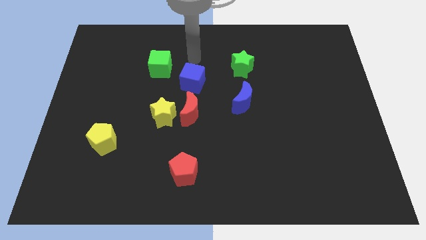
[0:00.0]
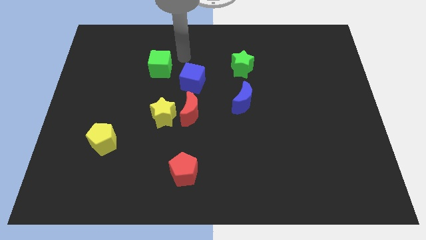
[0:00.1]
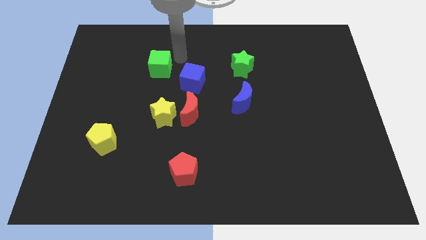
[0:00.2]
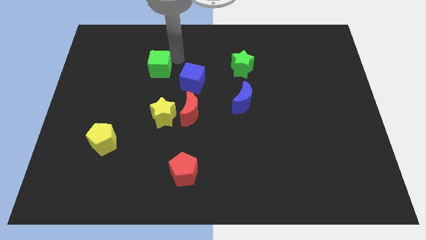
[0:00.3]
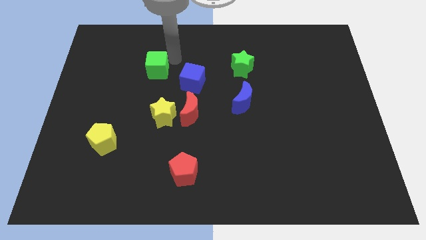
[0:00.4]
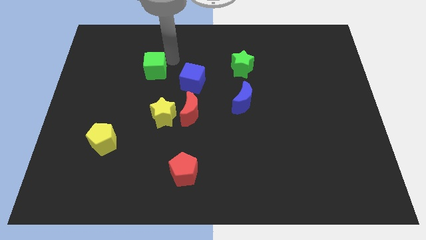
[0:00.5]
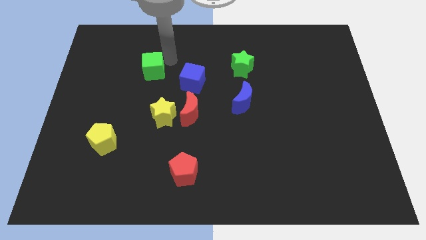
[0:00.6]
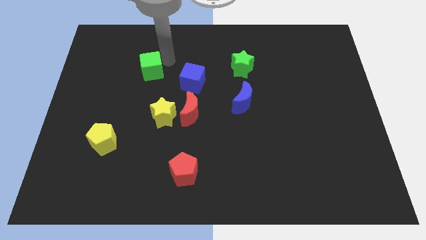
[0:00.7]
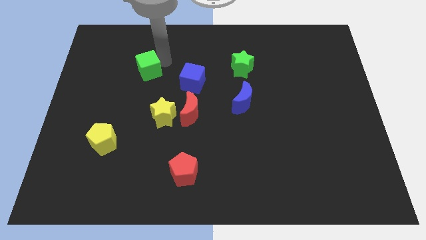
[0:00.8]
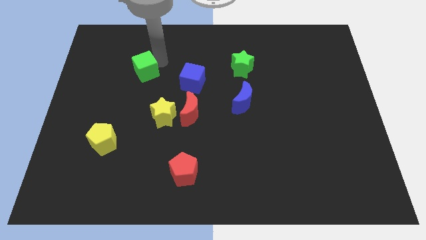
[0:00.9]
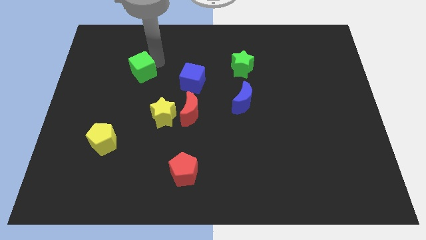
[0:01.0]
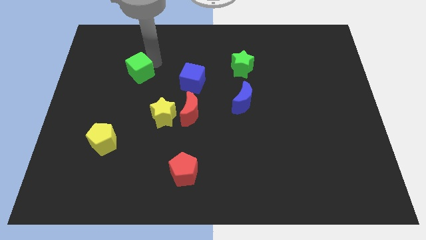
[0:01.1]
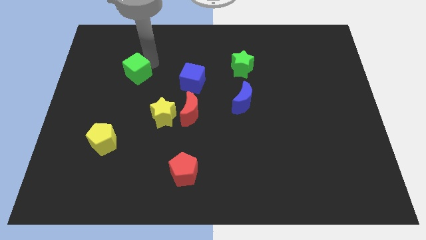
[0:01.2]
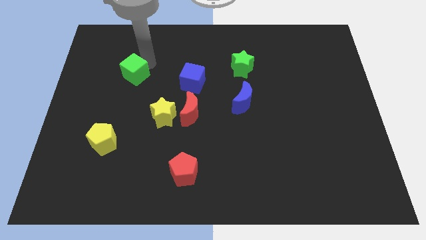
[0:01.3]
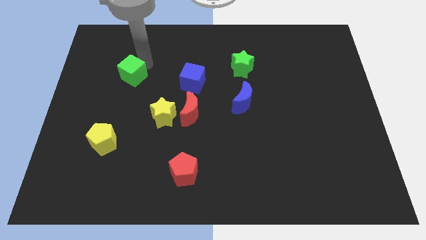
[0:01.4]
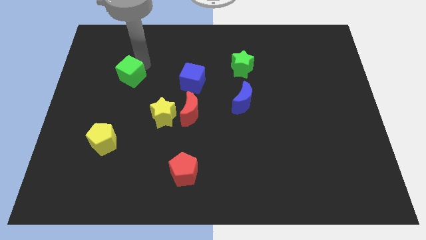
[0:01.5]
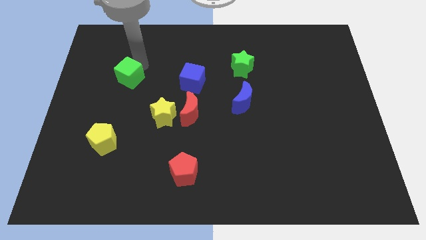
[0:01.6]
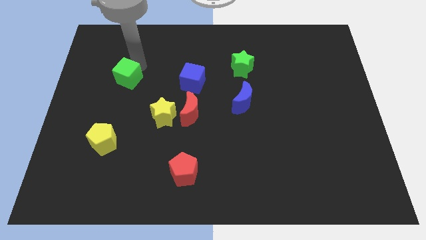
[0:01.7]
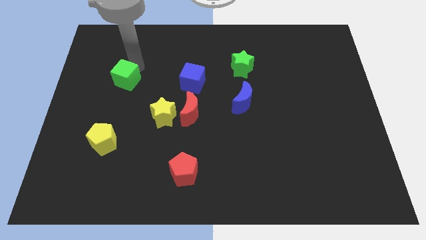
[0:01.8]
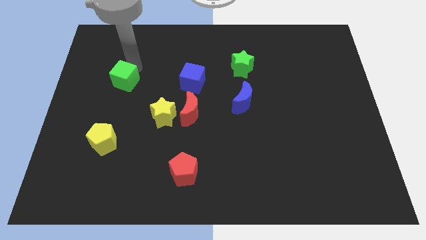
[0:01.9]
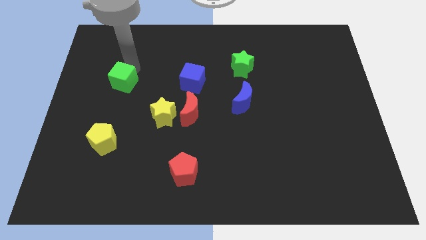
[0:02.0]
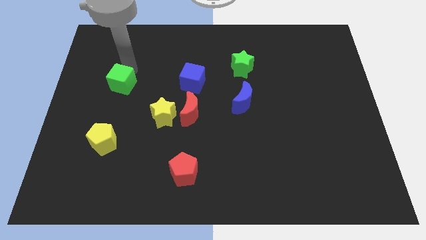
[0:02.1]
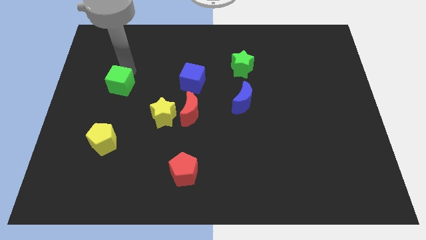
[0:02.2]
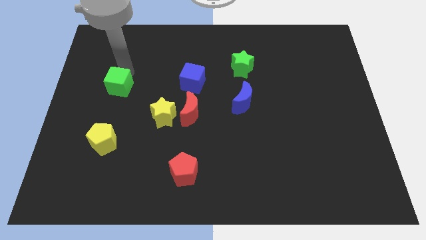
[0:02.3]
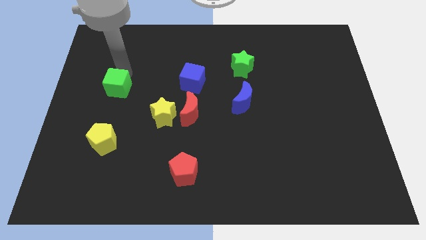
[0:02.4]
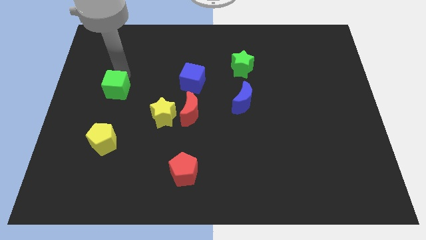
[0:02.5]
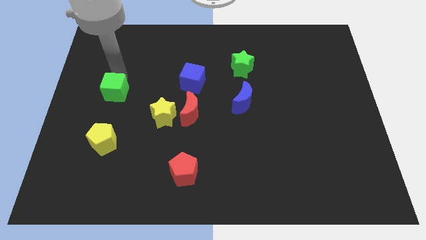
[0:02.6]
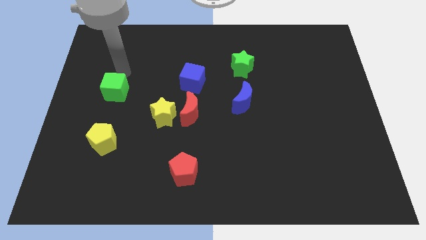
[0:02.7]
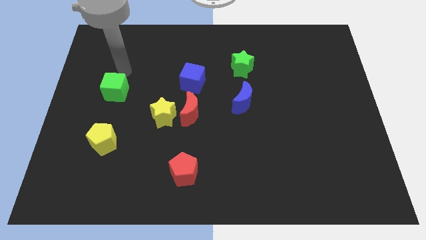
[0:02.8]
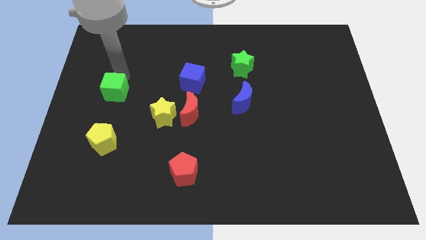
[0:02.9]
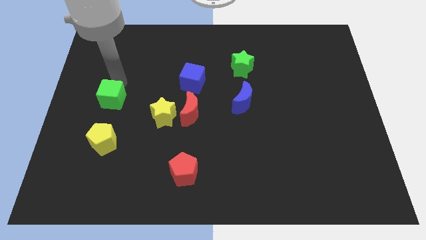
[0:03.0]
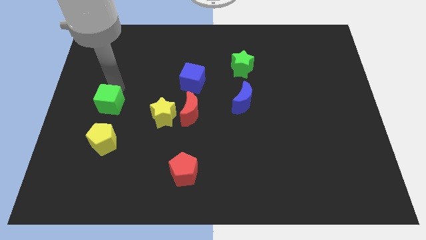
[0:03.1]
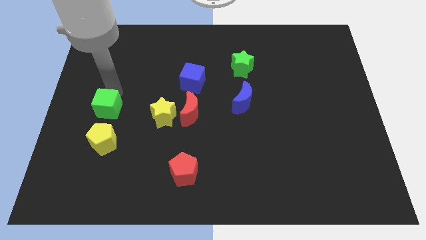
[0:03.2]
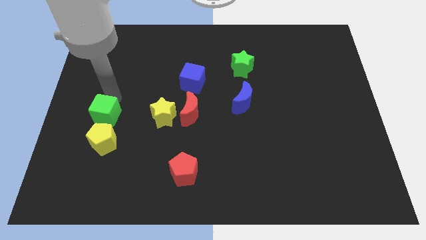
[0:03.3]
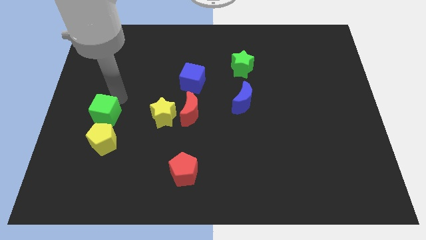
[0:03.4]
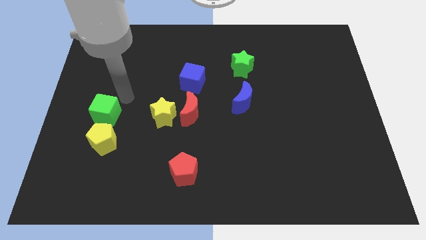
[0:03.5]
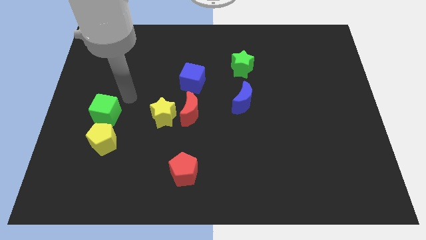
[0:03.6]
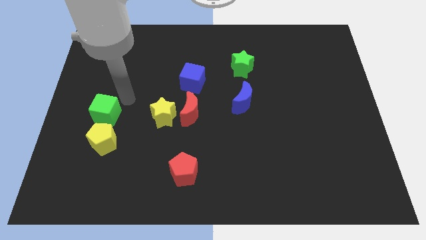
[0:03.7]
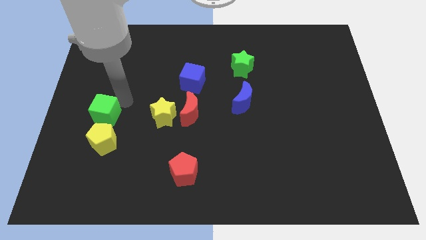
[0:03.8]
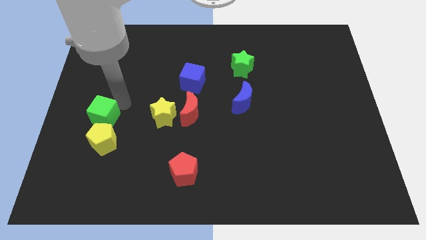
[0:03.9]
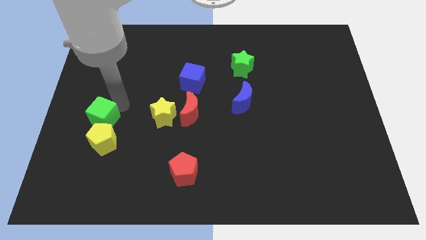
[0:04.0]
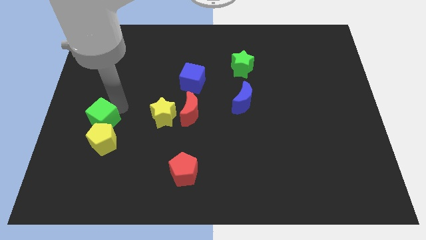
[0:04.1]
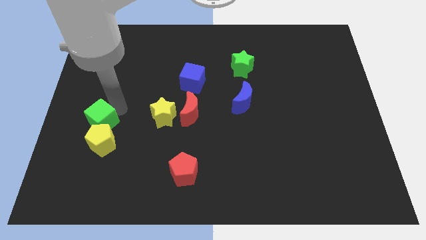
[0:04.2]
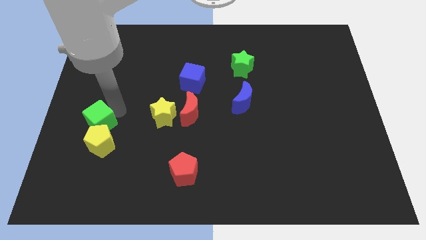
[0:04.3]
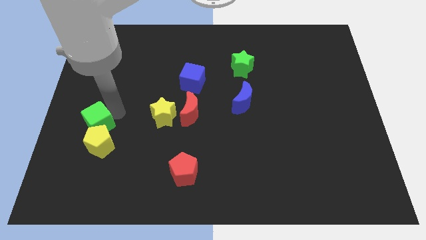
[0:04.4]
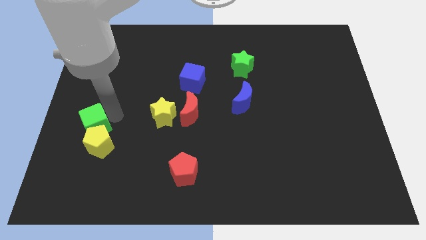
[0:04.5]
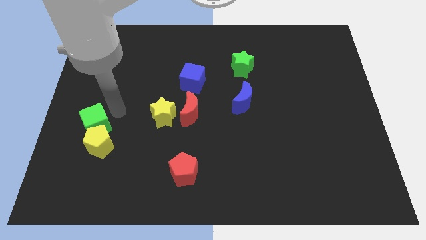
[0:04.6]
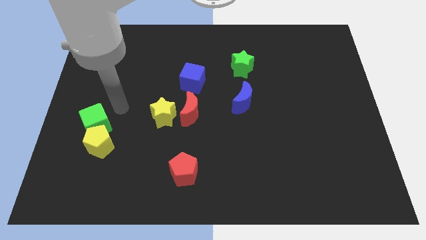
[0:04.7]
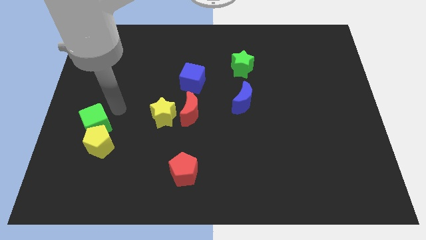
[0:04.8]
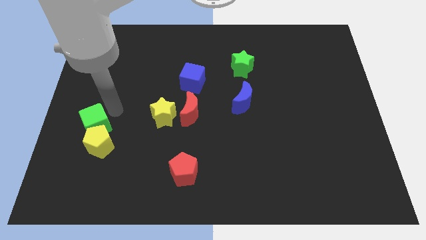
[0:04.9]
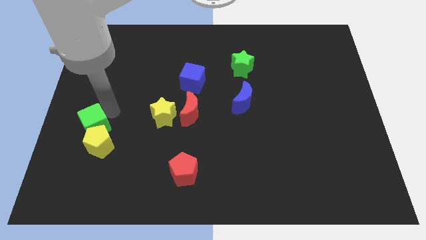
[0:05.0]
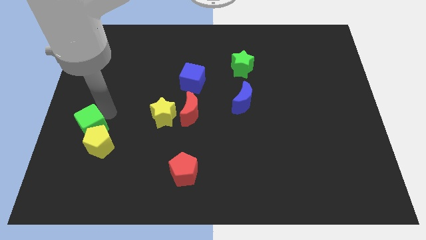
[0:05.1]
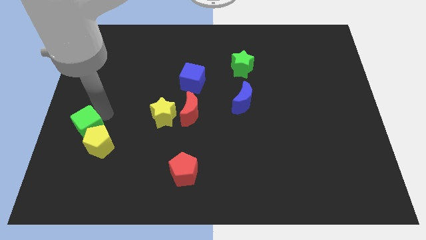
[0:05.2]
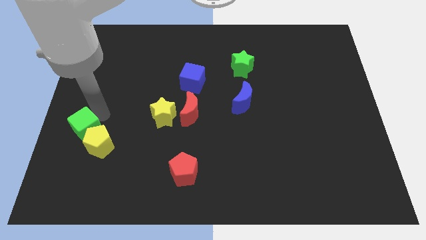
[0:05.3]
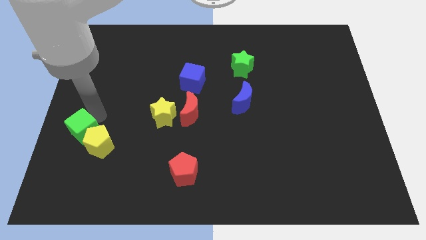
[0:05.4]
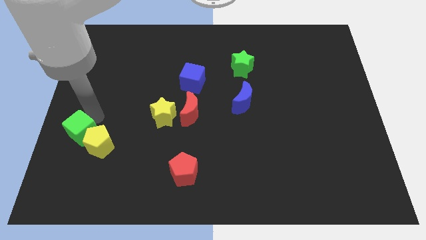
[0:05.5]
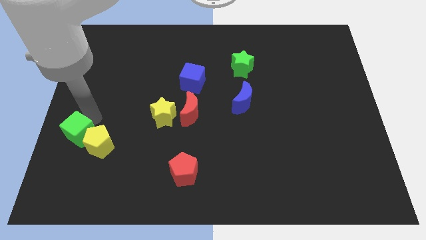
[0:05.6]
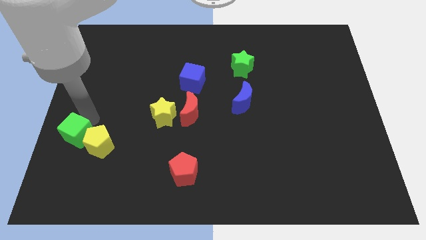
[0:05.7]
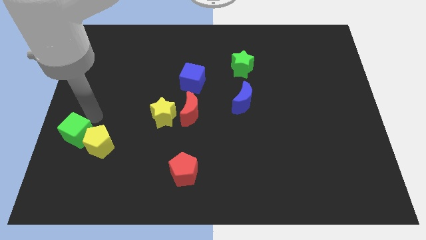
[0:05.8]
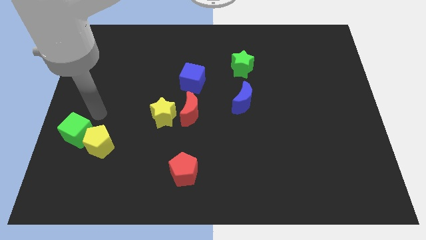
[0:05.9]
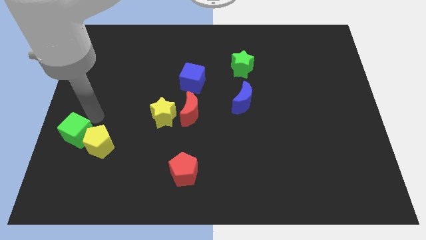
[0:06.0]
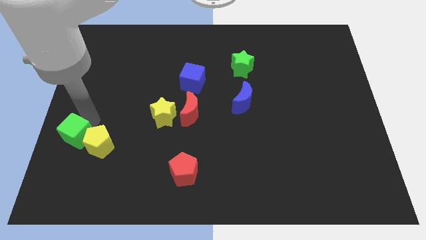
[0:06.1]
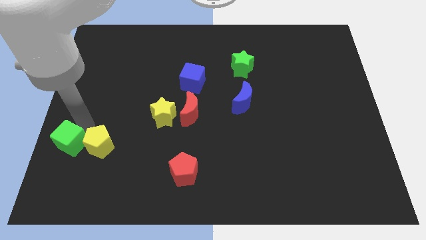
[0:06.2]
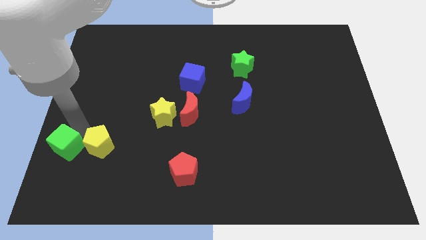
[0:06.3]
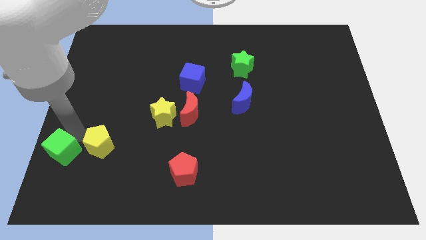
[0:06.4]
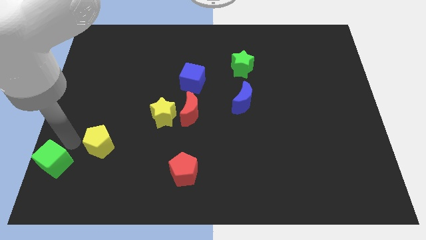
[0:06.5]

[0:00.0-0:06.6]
move the green cube to the bottom left
